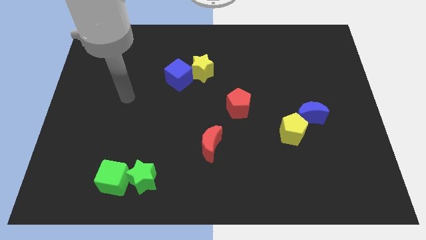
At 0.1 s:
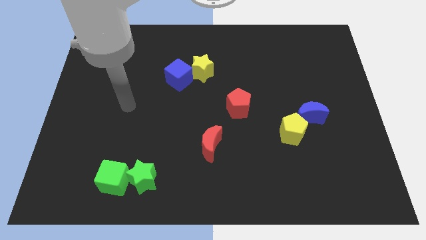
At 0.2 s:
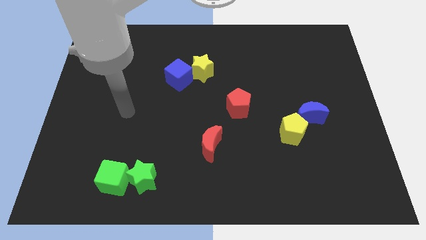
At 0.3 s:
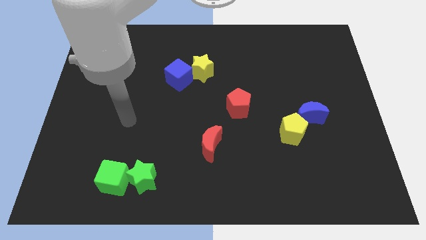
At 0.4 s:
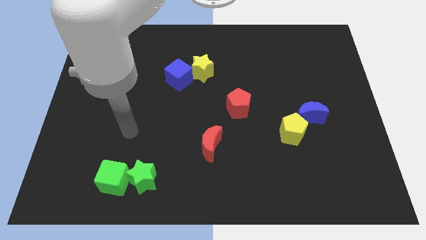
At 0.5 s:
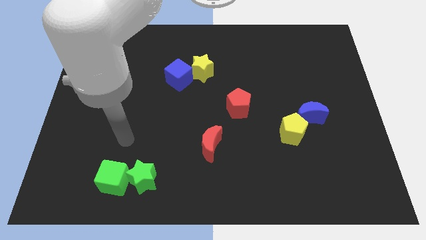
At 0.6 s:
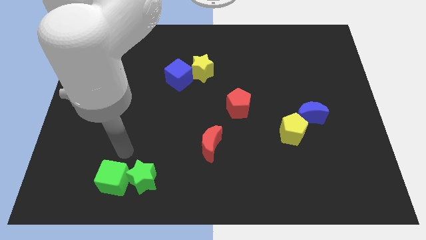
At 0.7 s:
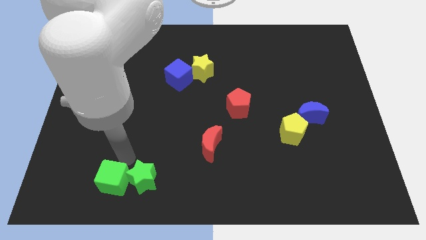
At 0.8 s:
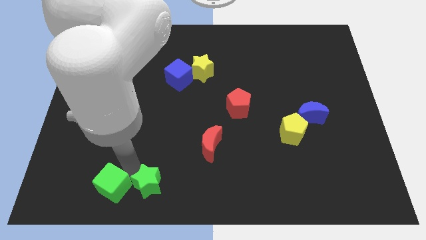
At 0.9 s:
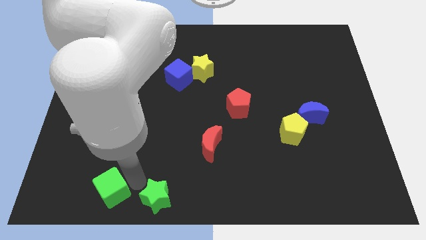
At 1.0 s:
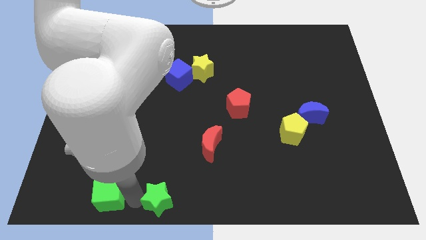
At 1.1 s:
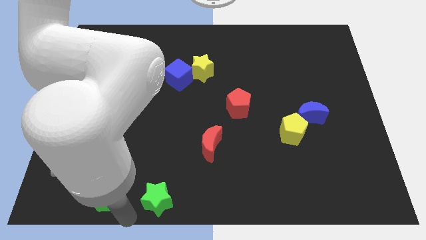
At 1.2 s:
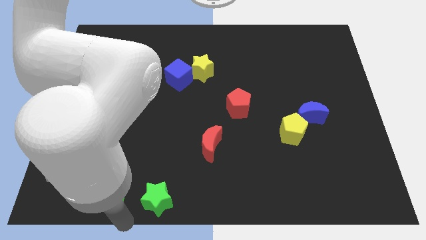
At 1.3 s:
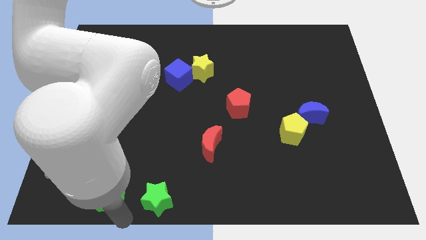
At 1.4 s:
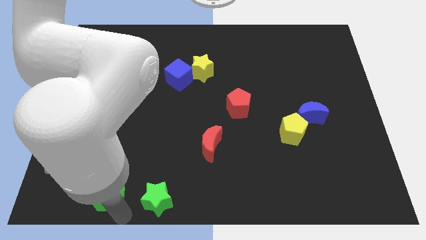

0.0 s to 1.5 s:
pull the green cube apart from the green star

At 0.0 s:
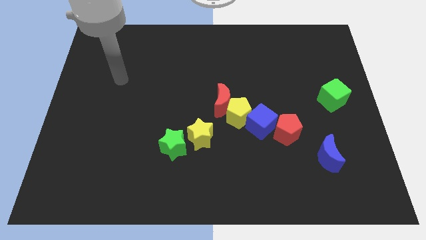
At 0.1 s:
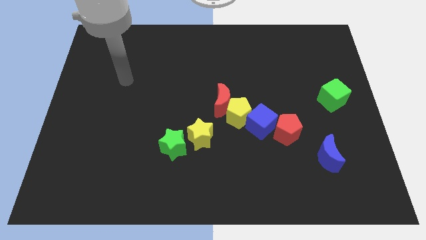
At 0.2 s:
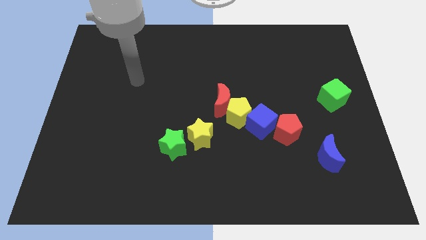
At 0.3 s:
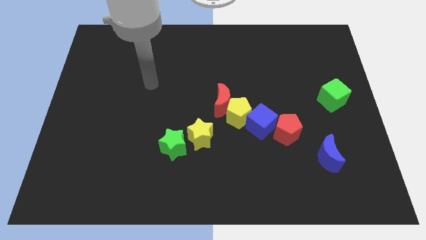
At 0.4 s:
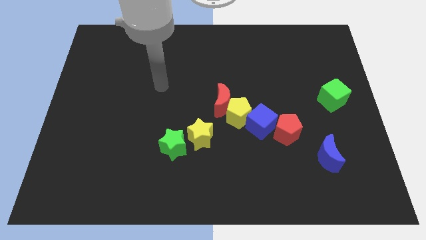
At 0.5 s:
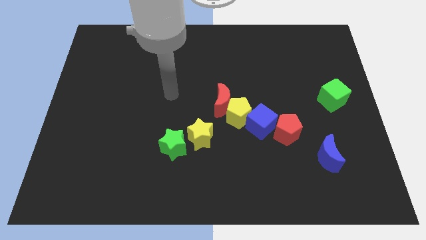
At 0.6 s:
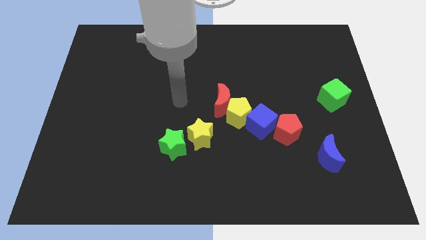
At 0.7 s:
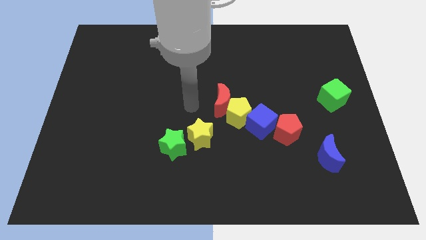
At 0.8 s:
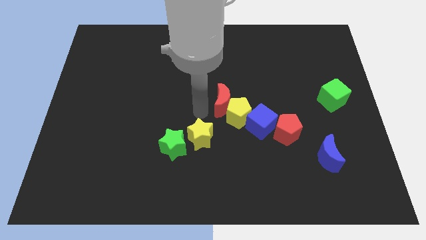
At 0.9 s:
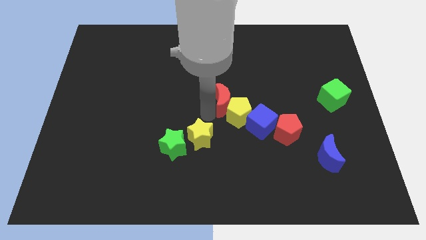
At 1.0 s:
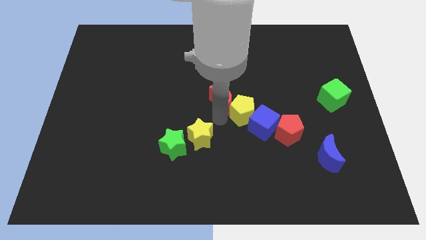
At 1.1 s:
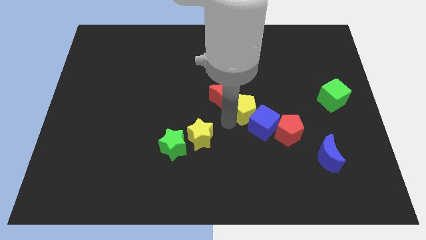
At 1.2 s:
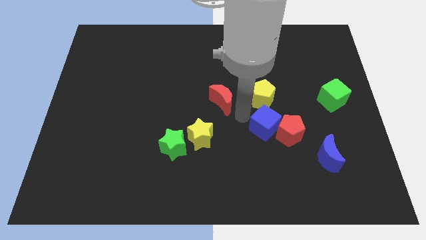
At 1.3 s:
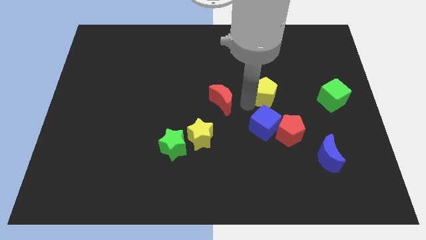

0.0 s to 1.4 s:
pull the red moon apart from the yellow pentagon

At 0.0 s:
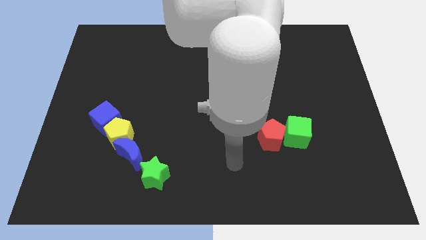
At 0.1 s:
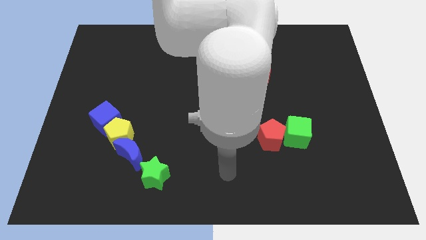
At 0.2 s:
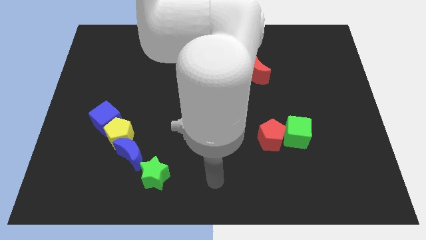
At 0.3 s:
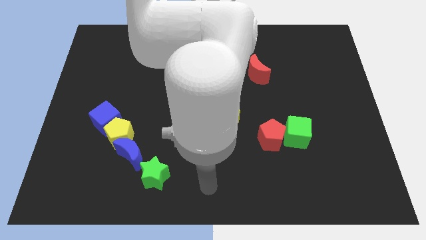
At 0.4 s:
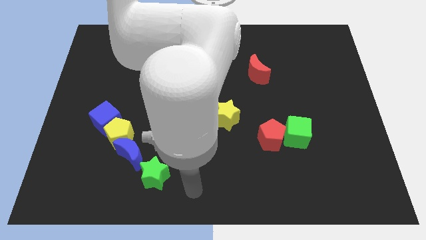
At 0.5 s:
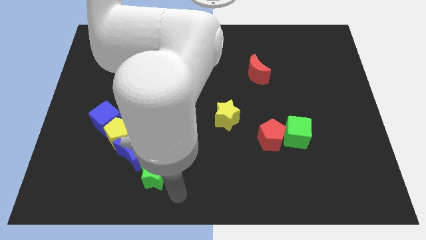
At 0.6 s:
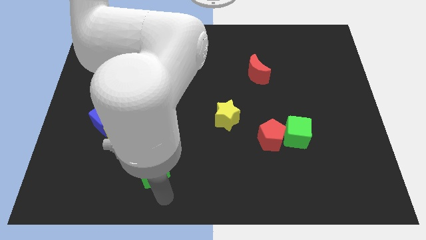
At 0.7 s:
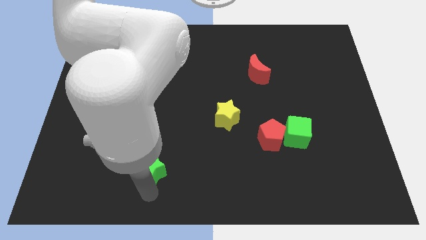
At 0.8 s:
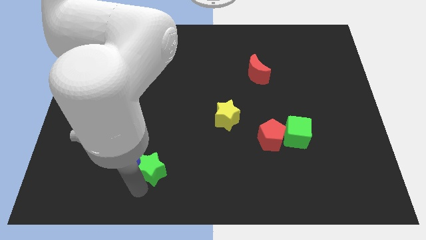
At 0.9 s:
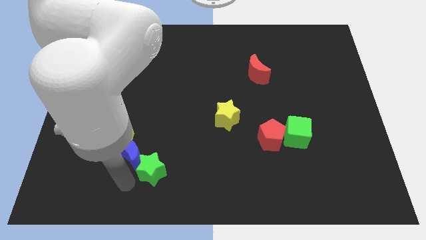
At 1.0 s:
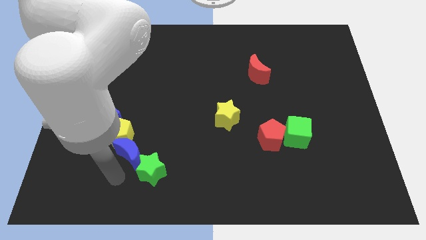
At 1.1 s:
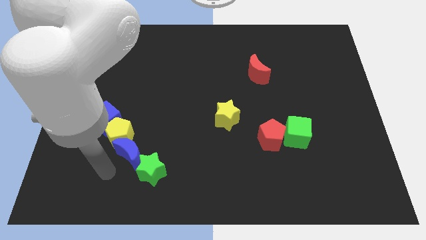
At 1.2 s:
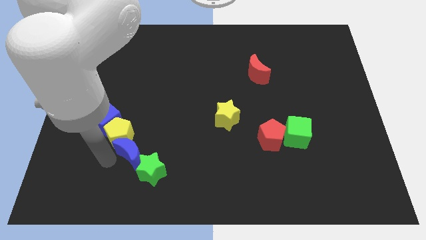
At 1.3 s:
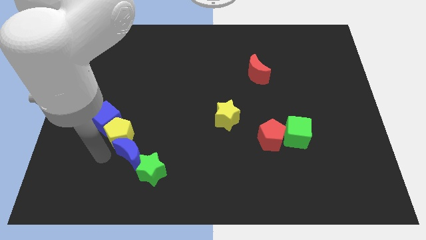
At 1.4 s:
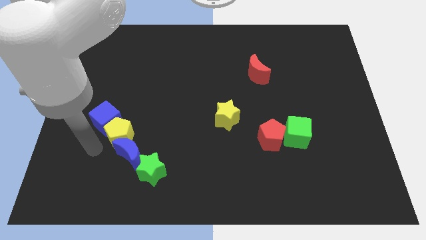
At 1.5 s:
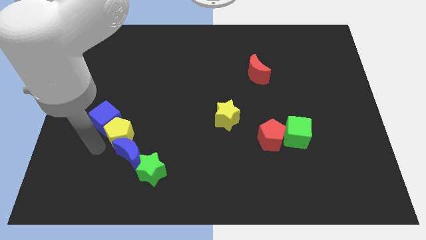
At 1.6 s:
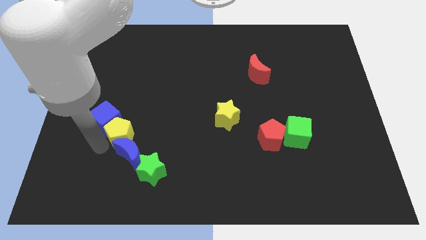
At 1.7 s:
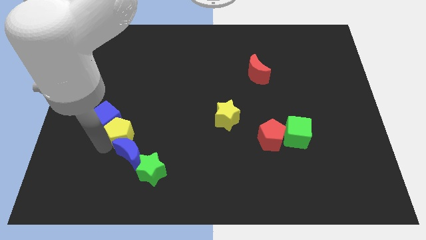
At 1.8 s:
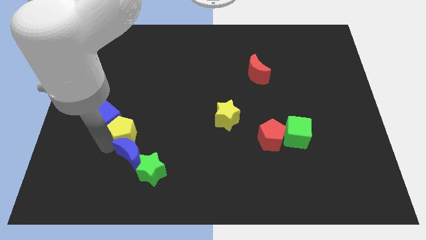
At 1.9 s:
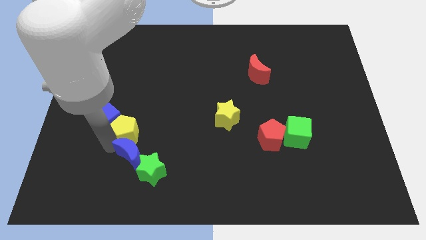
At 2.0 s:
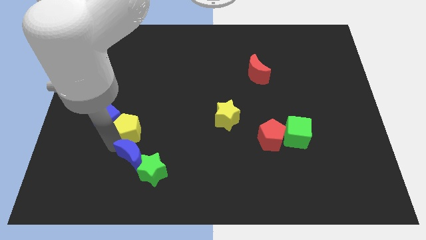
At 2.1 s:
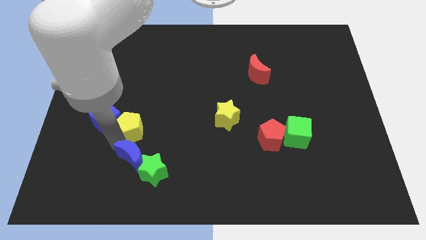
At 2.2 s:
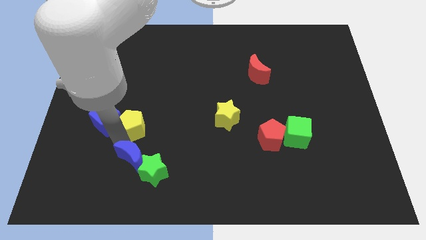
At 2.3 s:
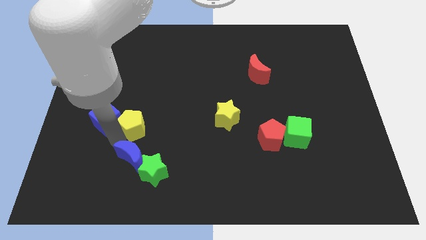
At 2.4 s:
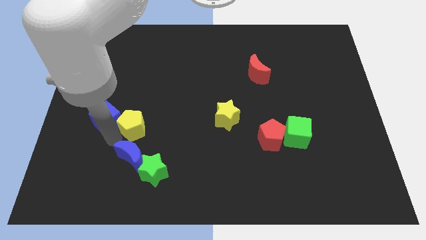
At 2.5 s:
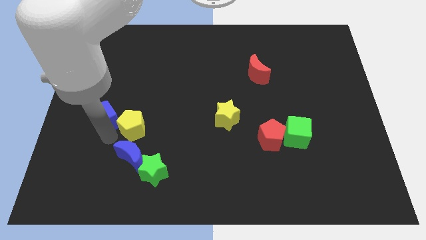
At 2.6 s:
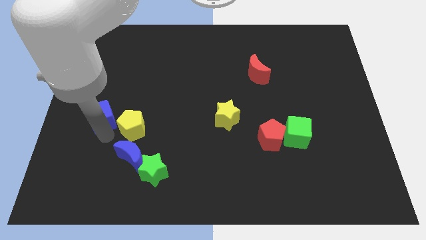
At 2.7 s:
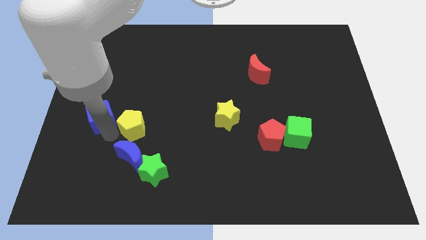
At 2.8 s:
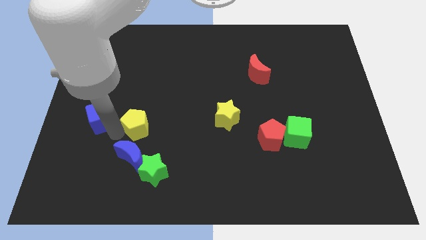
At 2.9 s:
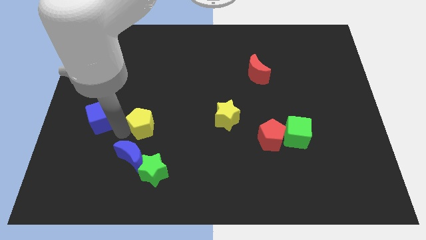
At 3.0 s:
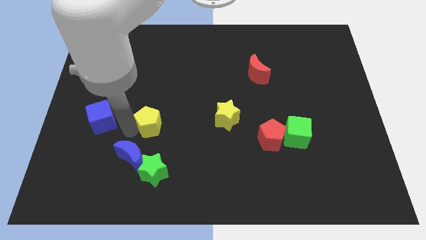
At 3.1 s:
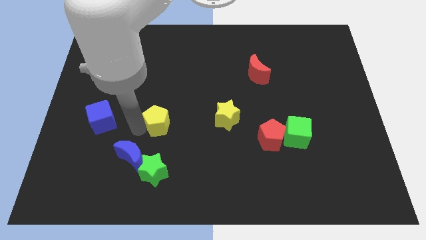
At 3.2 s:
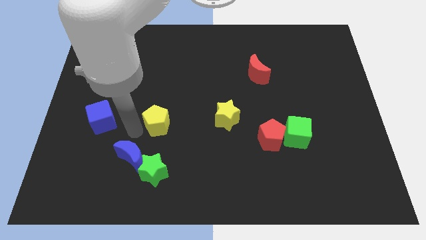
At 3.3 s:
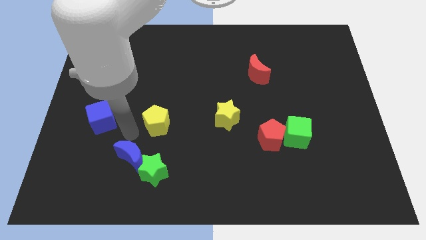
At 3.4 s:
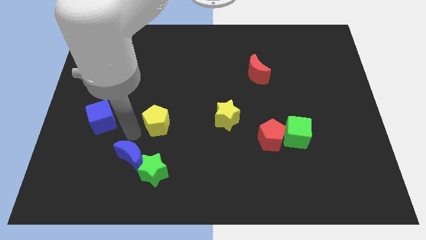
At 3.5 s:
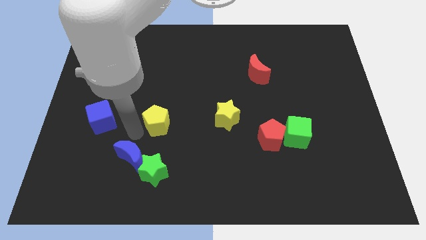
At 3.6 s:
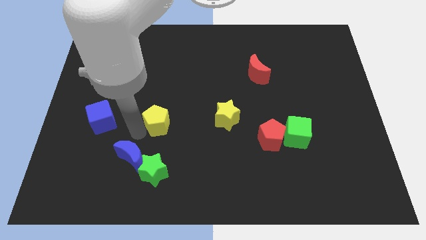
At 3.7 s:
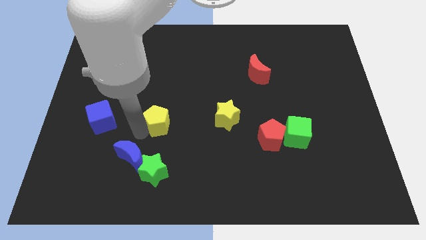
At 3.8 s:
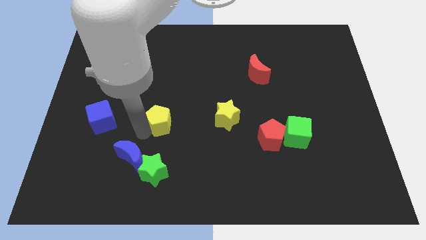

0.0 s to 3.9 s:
pull the yellow pentagon apart from the blue moon and blue cube

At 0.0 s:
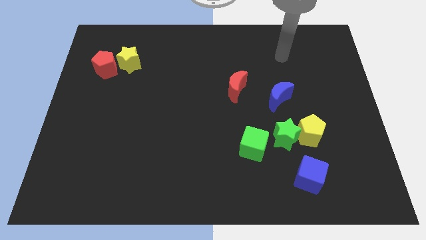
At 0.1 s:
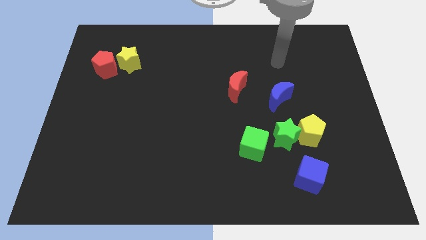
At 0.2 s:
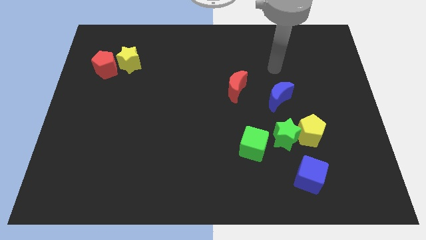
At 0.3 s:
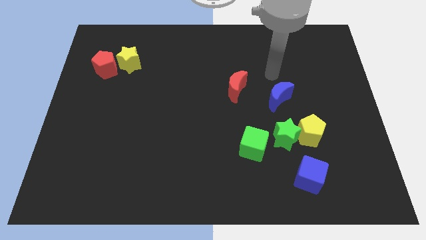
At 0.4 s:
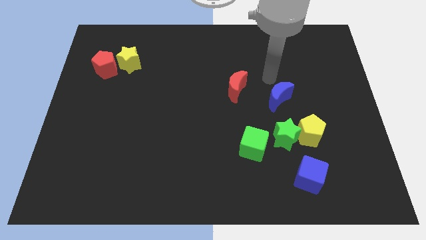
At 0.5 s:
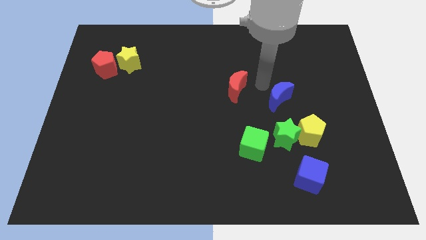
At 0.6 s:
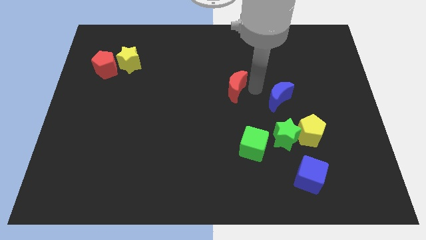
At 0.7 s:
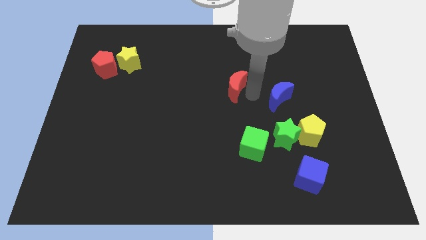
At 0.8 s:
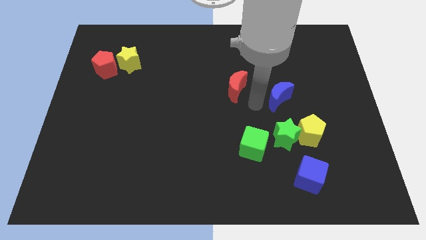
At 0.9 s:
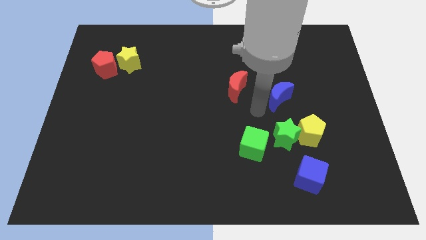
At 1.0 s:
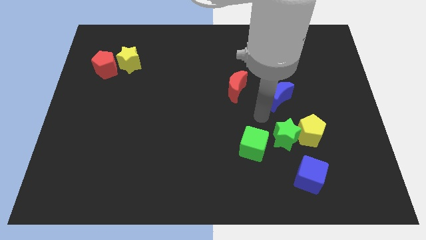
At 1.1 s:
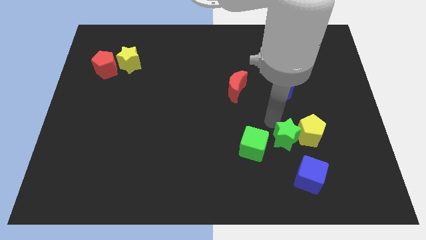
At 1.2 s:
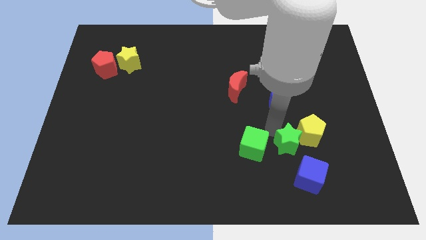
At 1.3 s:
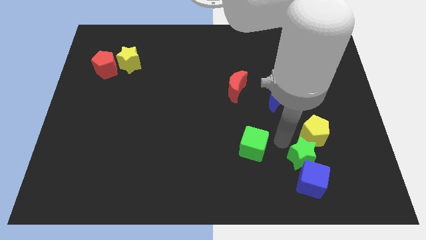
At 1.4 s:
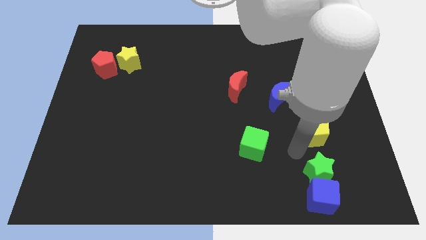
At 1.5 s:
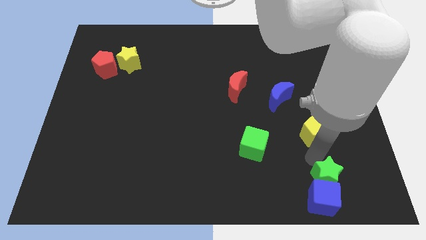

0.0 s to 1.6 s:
separate the yellow pentagon from the green star

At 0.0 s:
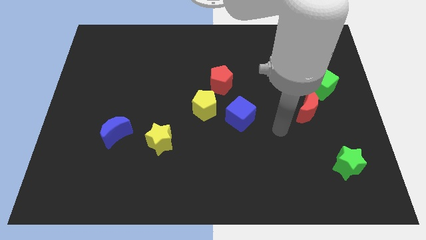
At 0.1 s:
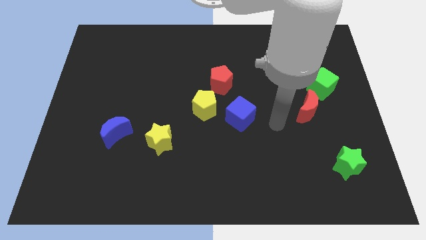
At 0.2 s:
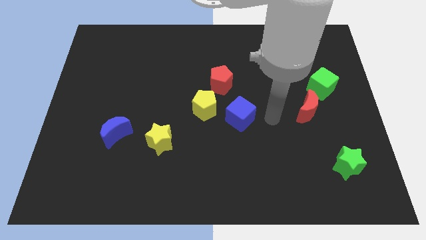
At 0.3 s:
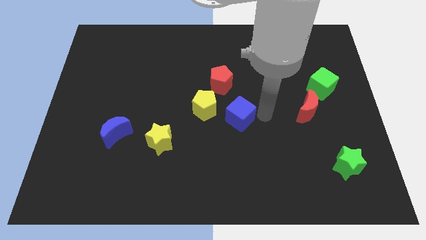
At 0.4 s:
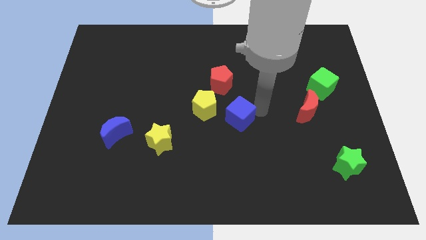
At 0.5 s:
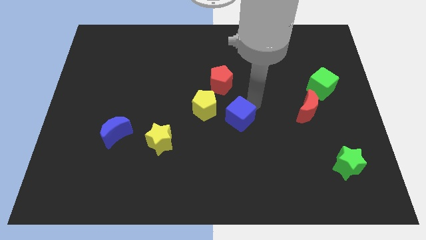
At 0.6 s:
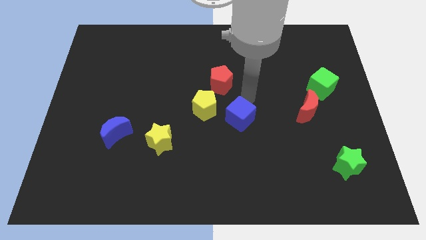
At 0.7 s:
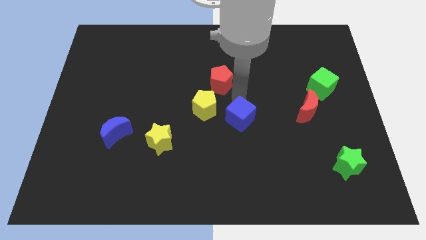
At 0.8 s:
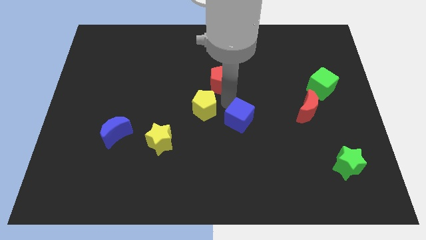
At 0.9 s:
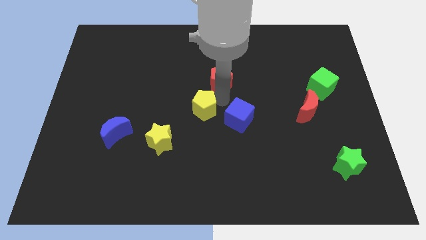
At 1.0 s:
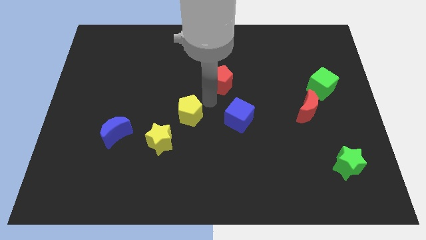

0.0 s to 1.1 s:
pull the red pentagon apart from the yellow pentagon
